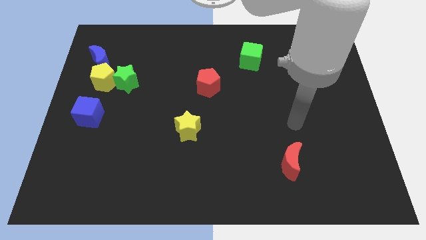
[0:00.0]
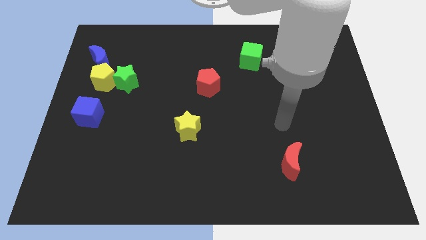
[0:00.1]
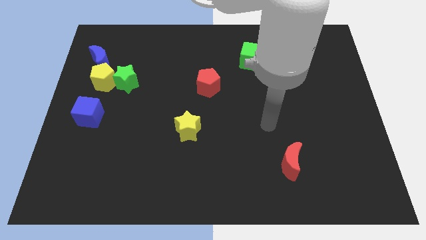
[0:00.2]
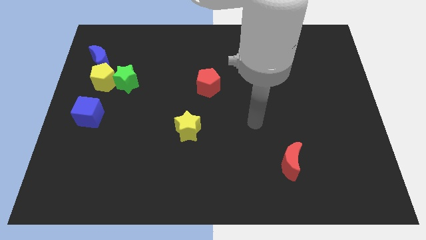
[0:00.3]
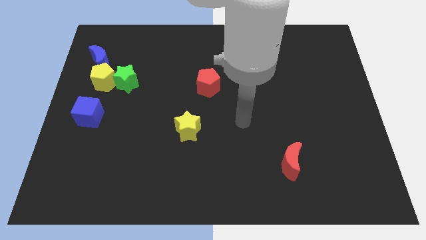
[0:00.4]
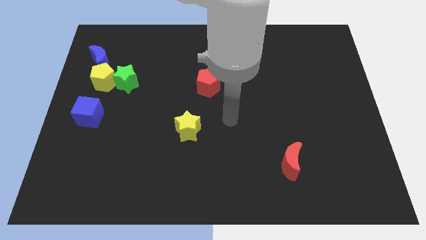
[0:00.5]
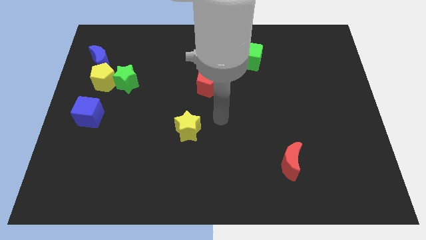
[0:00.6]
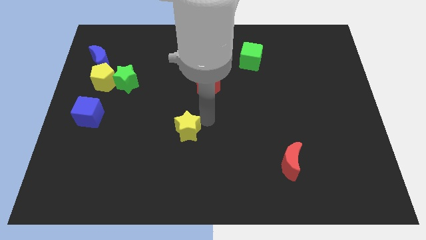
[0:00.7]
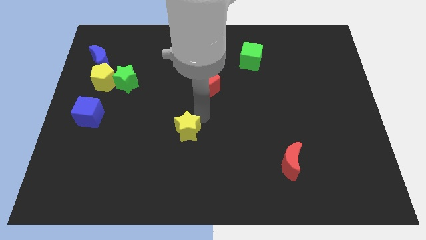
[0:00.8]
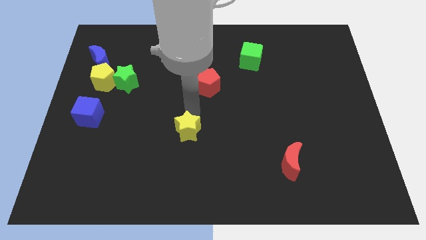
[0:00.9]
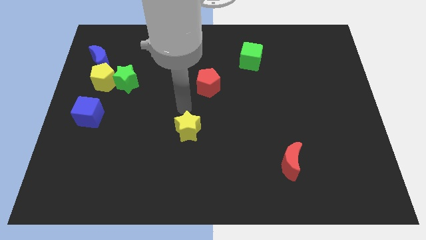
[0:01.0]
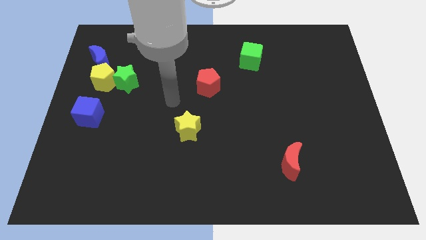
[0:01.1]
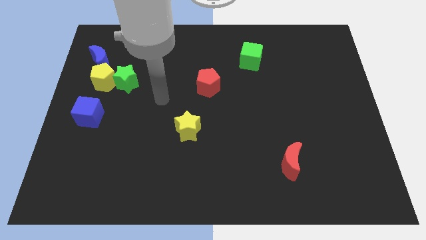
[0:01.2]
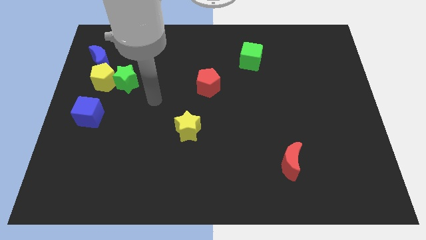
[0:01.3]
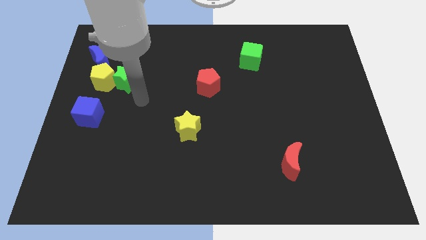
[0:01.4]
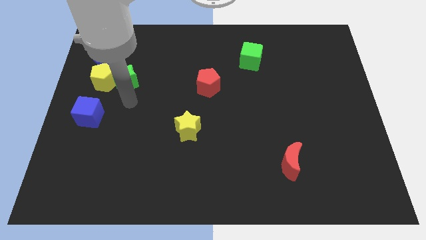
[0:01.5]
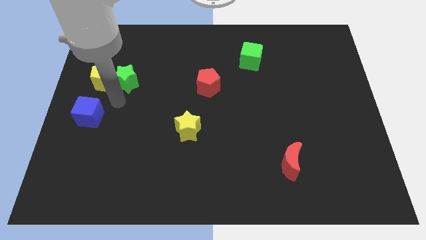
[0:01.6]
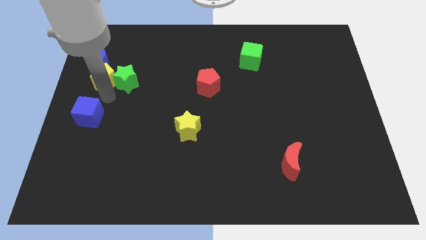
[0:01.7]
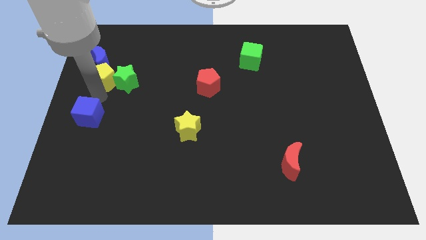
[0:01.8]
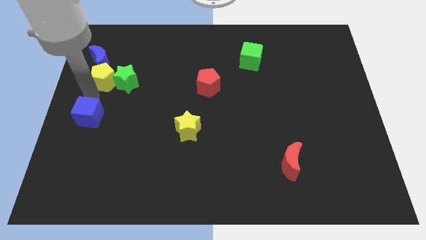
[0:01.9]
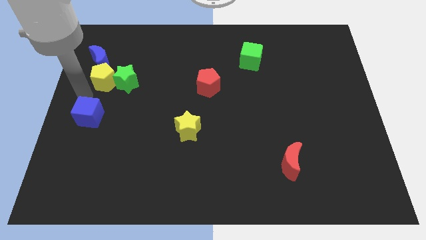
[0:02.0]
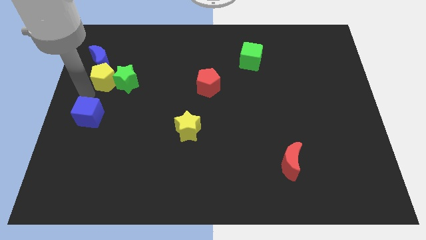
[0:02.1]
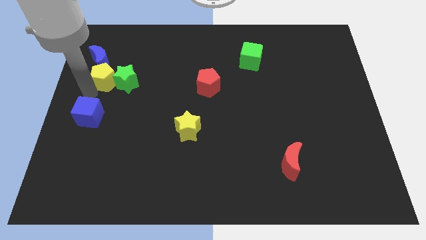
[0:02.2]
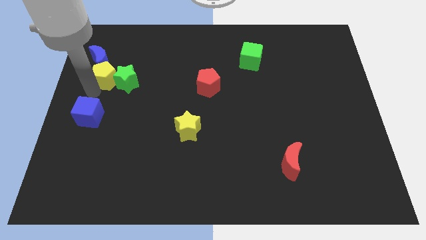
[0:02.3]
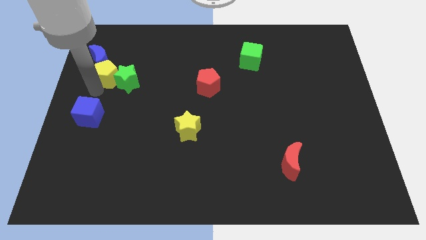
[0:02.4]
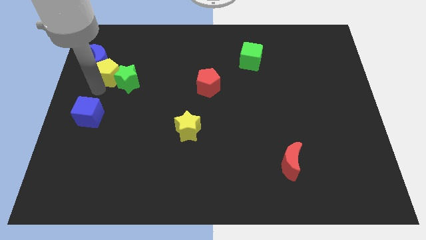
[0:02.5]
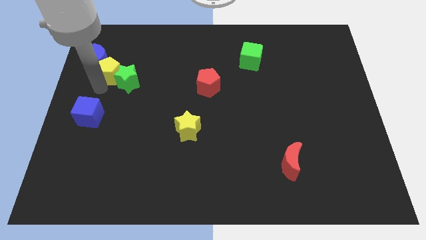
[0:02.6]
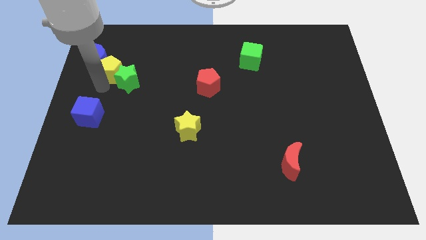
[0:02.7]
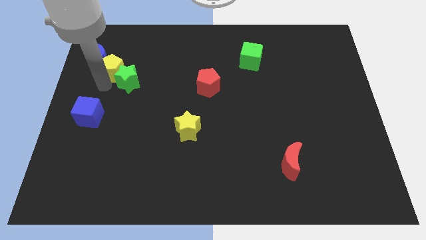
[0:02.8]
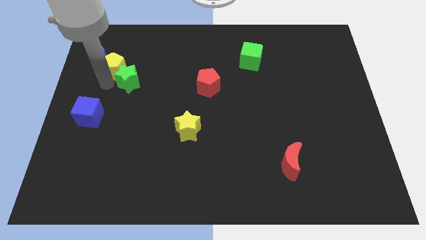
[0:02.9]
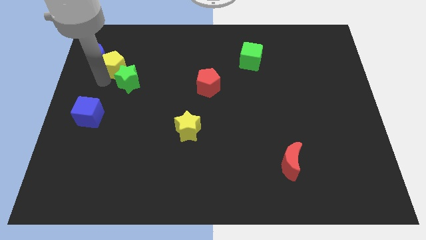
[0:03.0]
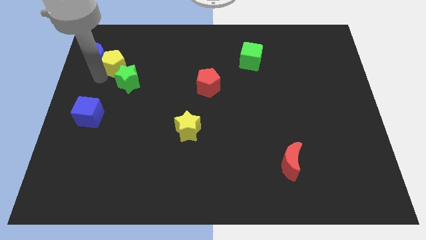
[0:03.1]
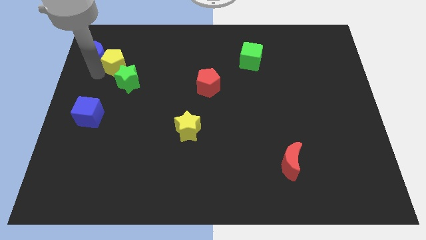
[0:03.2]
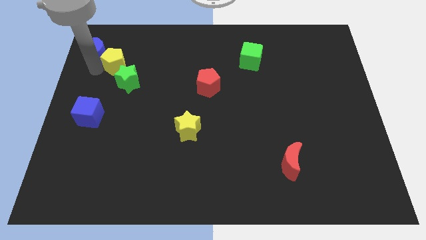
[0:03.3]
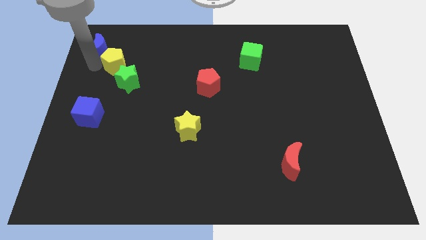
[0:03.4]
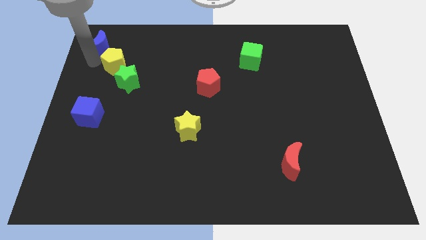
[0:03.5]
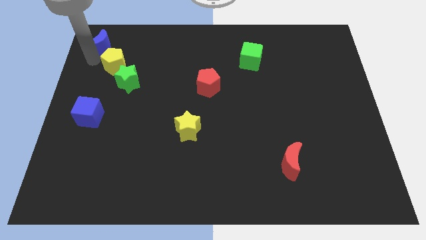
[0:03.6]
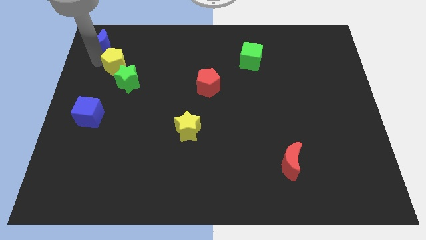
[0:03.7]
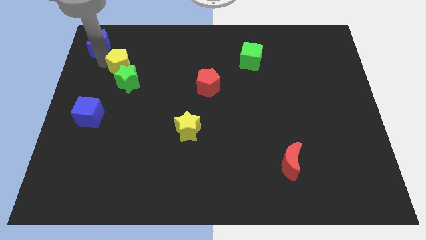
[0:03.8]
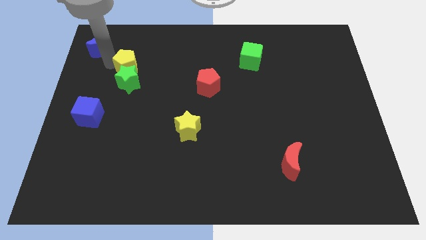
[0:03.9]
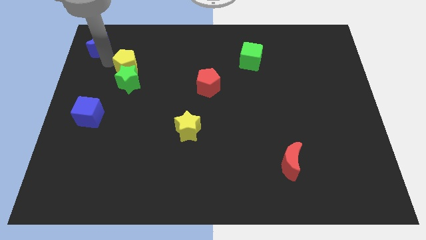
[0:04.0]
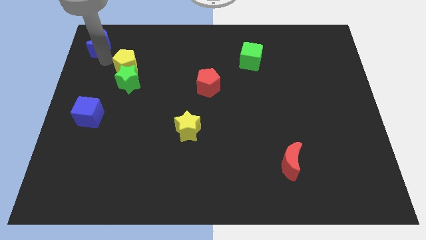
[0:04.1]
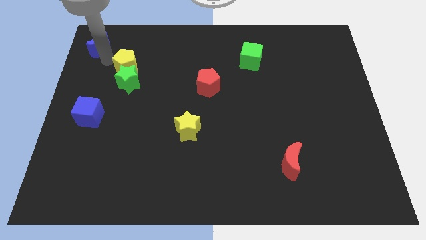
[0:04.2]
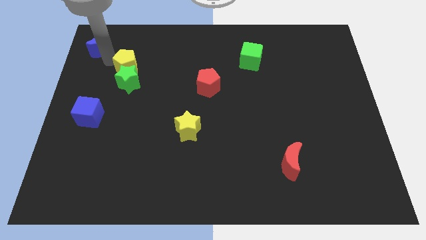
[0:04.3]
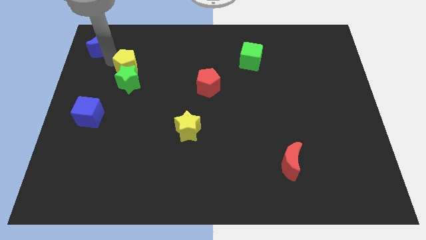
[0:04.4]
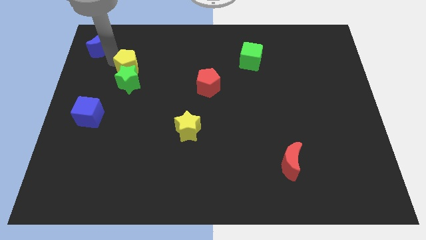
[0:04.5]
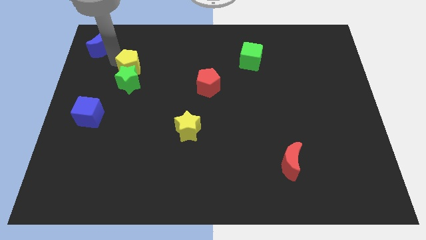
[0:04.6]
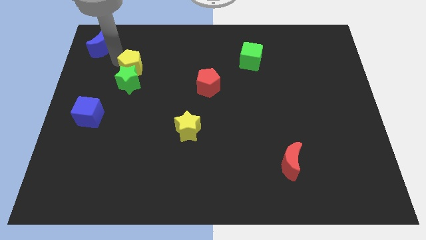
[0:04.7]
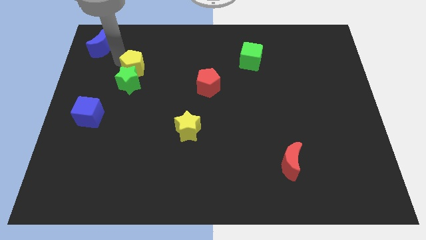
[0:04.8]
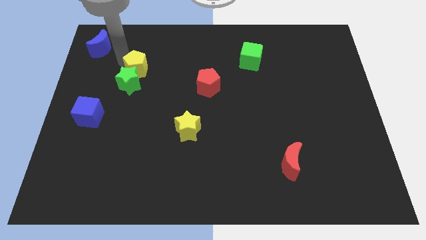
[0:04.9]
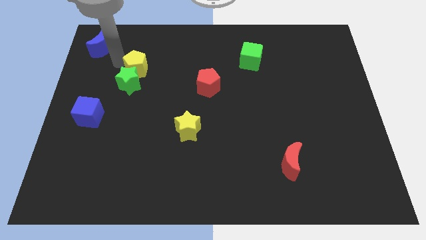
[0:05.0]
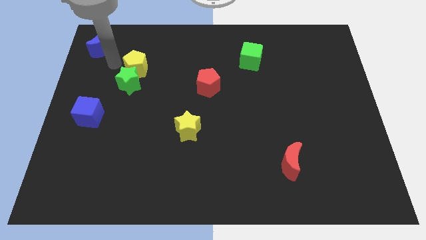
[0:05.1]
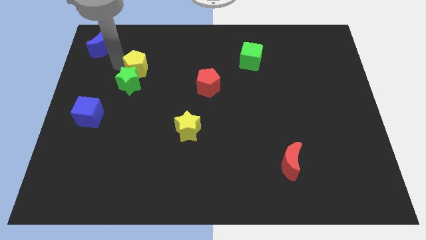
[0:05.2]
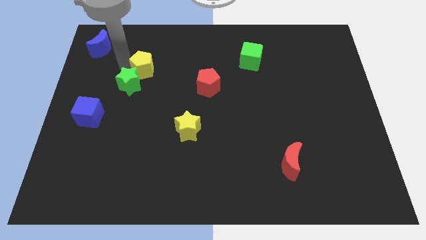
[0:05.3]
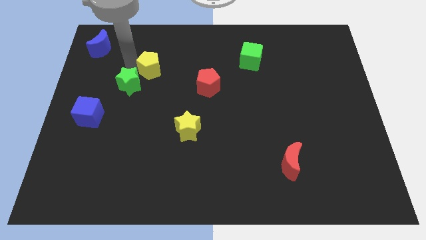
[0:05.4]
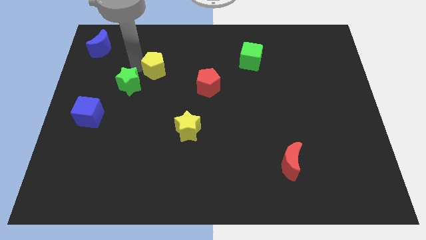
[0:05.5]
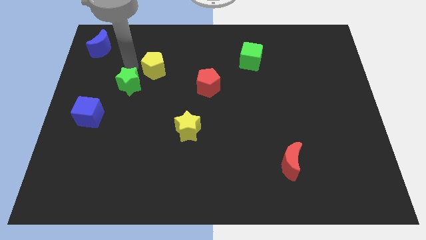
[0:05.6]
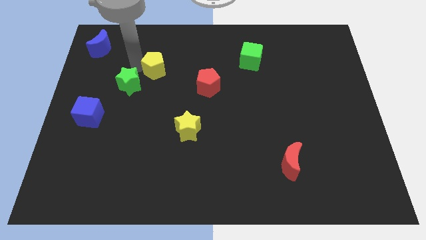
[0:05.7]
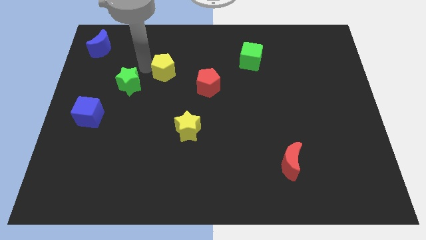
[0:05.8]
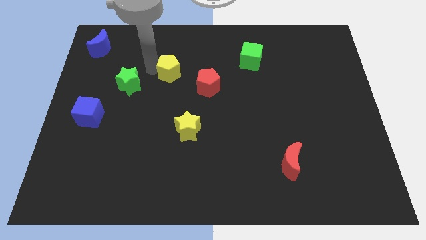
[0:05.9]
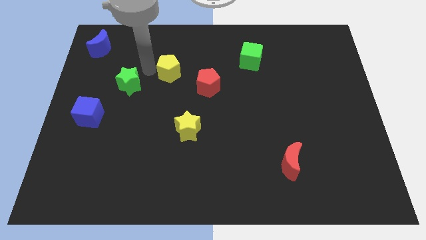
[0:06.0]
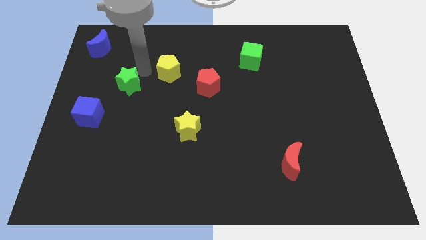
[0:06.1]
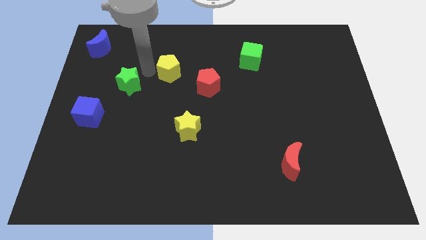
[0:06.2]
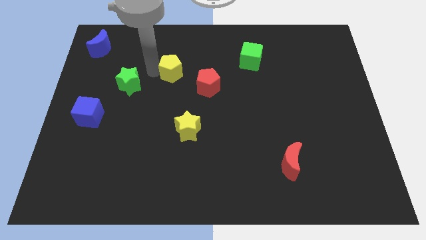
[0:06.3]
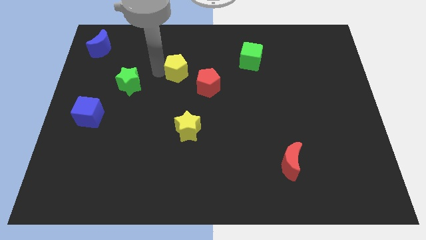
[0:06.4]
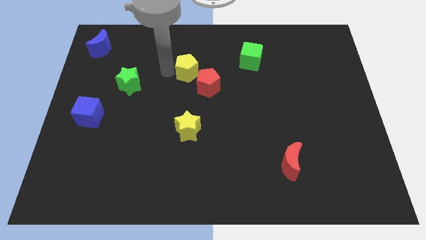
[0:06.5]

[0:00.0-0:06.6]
push the yellow pentagon right

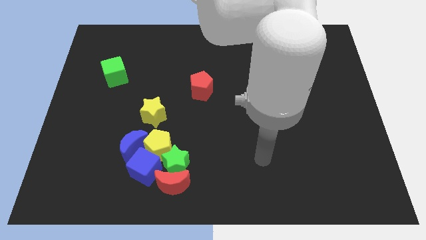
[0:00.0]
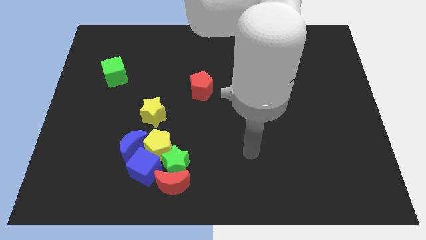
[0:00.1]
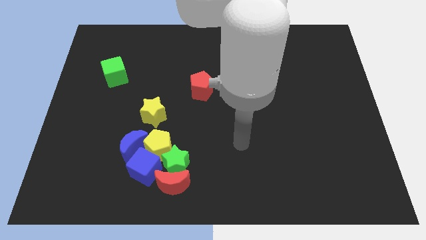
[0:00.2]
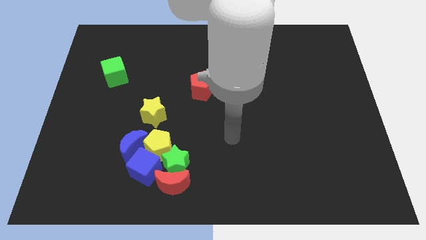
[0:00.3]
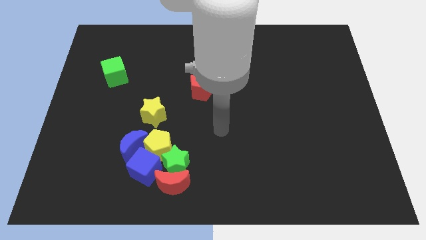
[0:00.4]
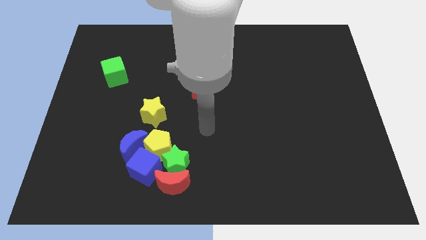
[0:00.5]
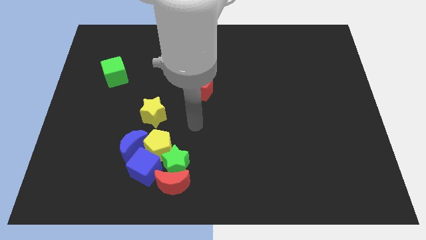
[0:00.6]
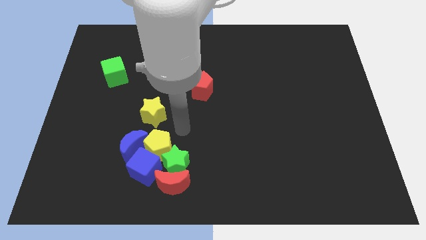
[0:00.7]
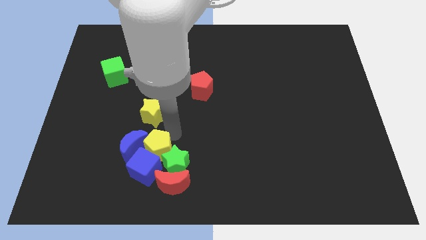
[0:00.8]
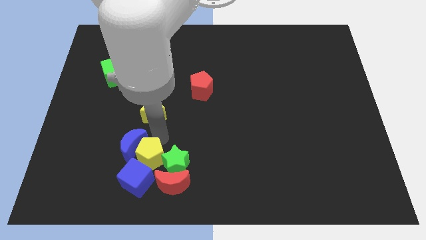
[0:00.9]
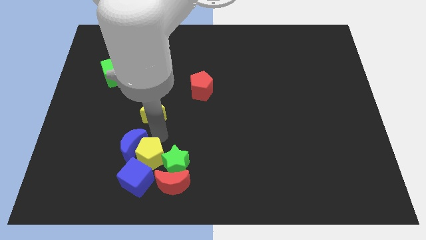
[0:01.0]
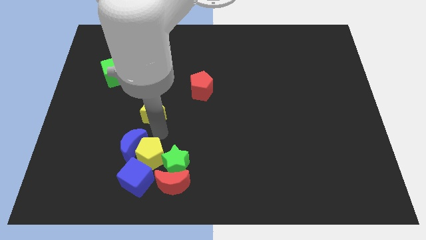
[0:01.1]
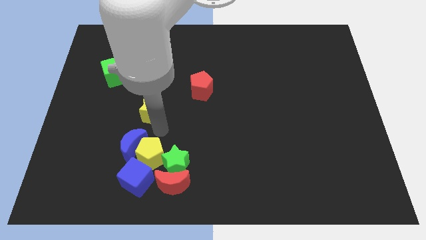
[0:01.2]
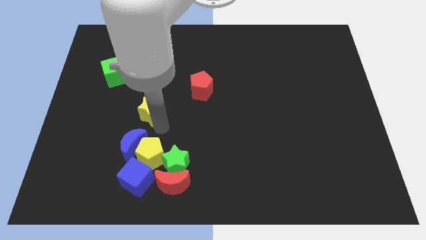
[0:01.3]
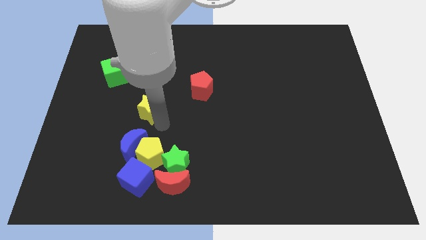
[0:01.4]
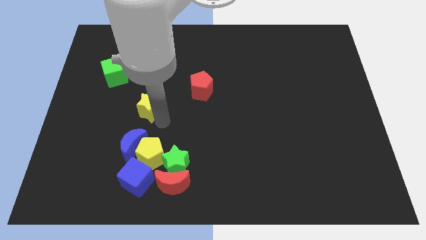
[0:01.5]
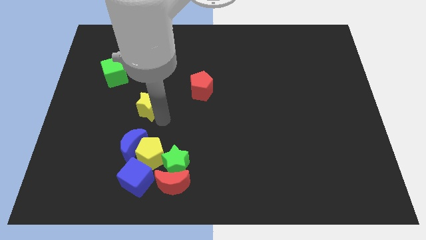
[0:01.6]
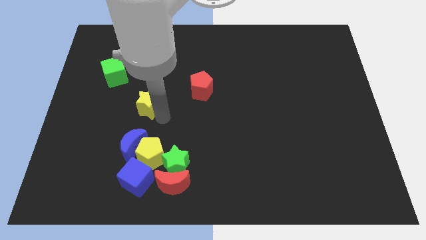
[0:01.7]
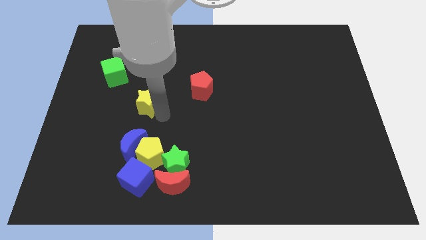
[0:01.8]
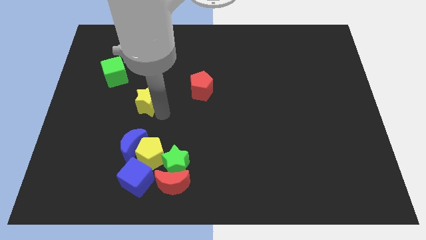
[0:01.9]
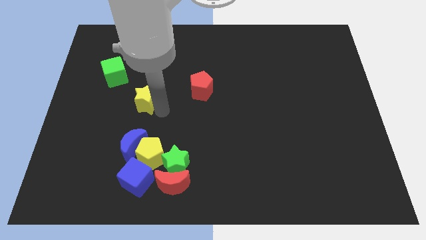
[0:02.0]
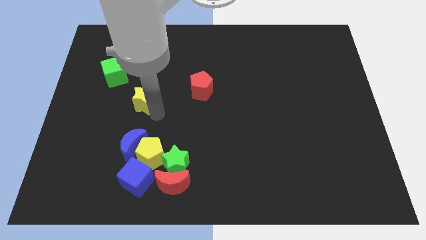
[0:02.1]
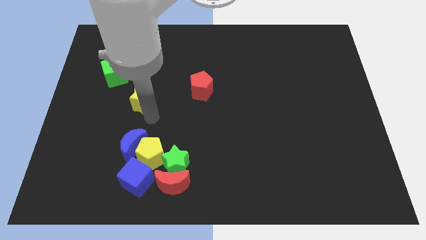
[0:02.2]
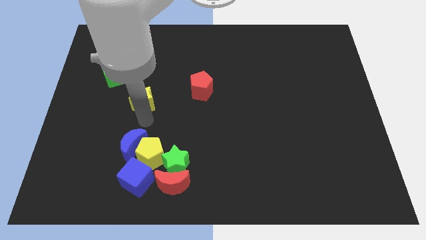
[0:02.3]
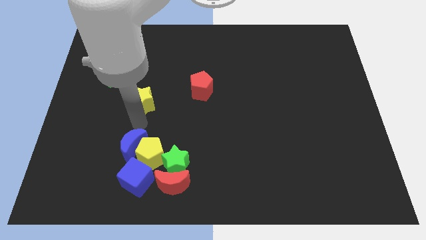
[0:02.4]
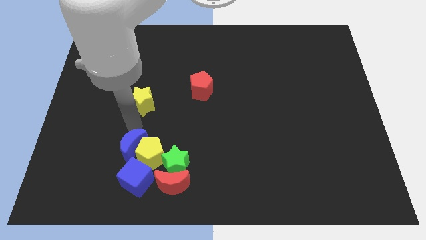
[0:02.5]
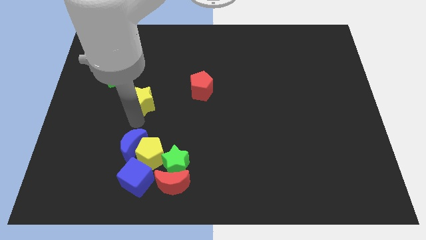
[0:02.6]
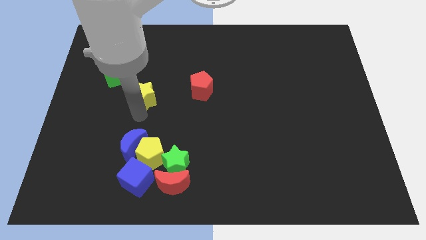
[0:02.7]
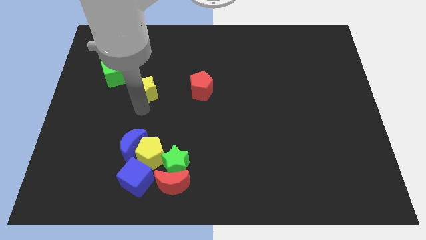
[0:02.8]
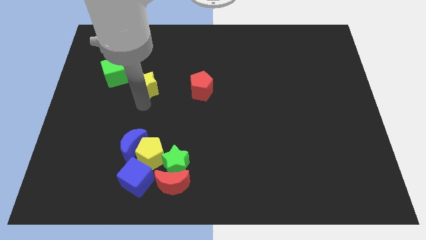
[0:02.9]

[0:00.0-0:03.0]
slightly slide the yellow star upwards
